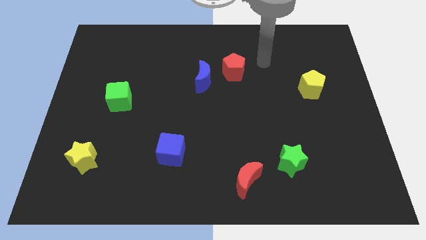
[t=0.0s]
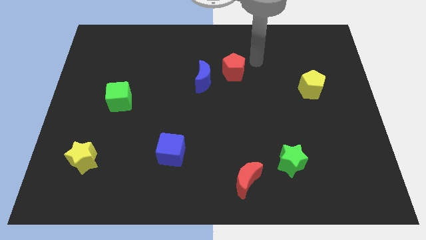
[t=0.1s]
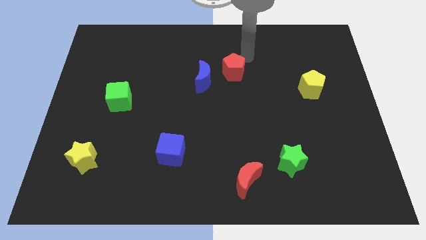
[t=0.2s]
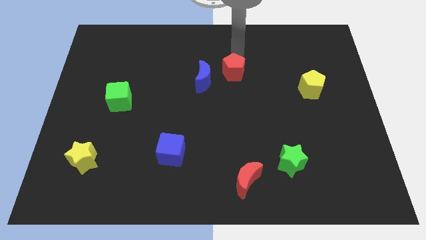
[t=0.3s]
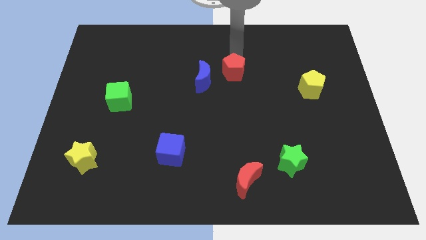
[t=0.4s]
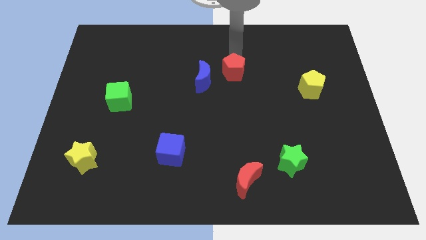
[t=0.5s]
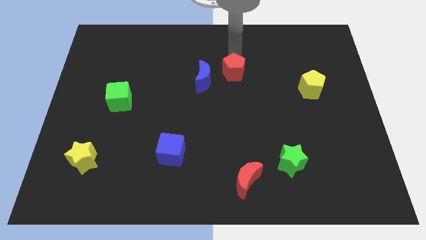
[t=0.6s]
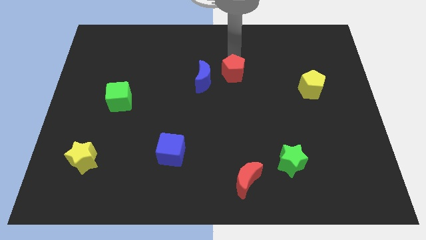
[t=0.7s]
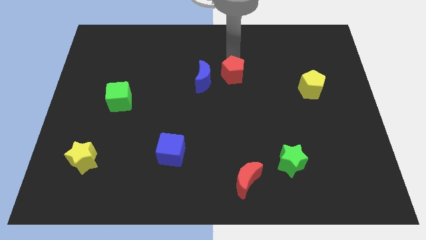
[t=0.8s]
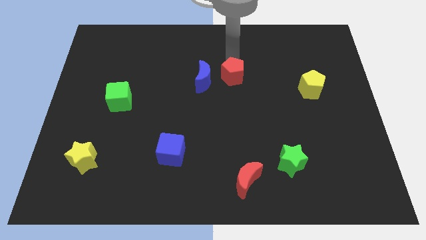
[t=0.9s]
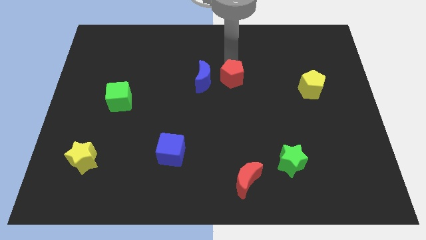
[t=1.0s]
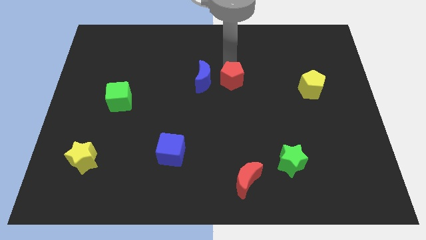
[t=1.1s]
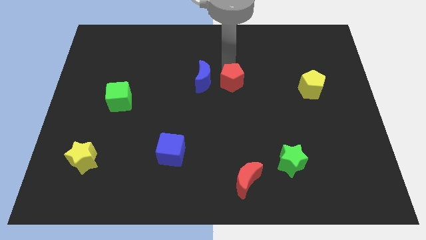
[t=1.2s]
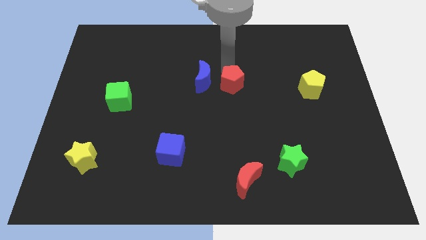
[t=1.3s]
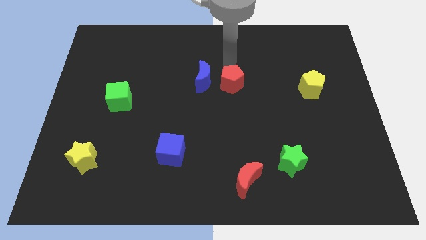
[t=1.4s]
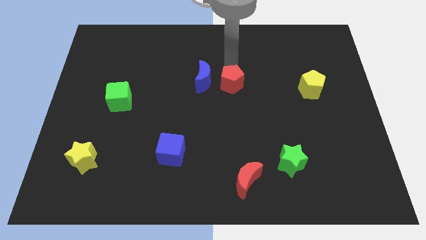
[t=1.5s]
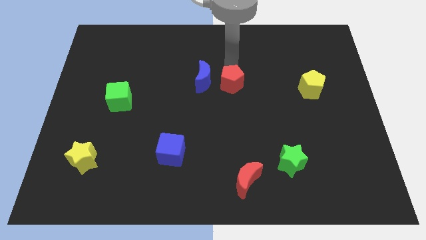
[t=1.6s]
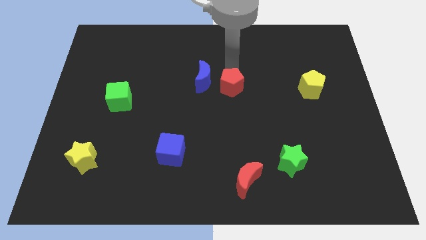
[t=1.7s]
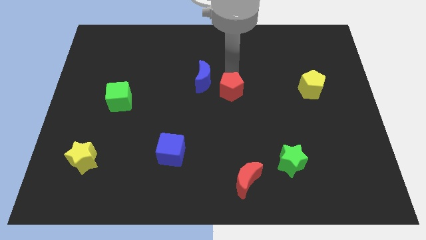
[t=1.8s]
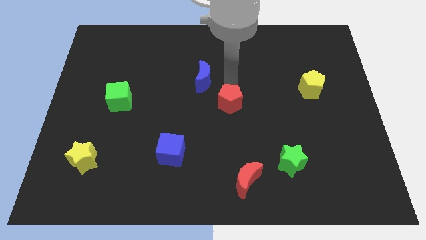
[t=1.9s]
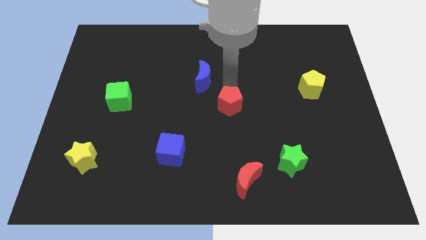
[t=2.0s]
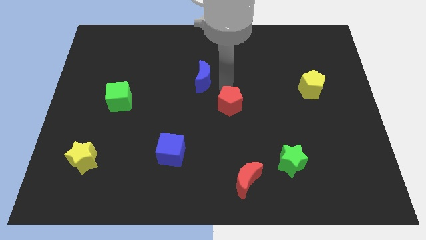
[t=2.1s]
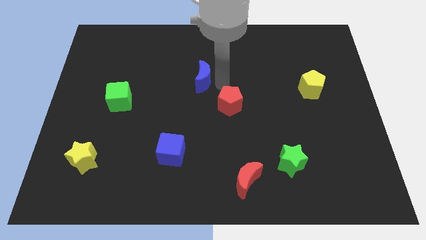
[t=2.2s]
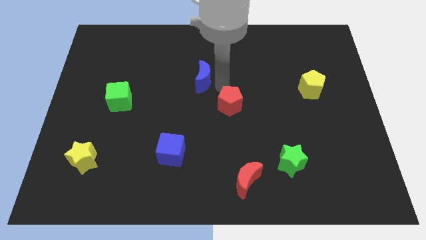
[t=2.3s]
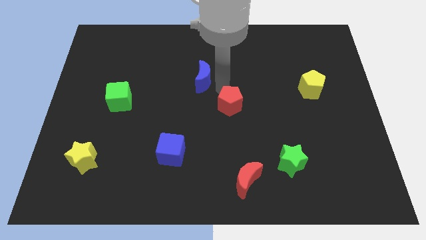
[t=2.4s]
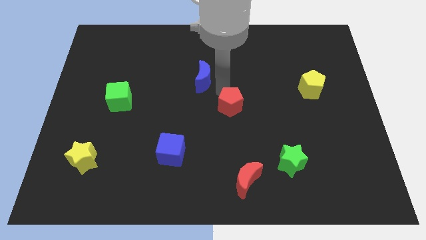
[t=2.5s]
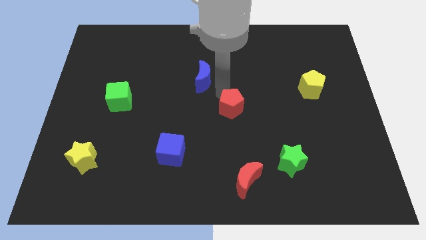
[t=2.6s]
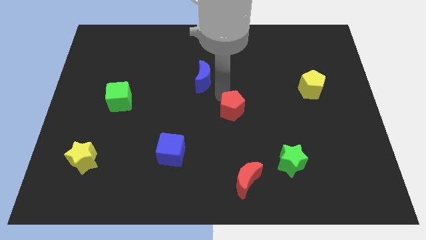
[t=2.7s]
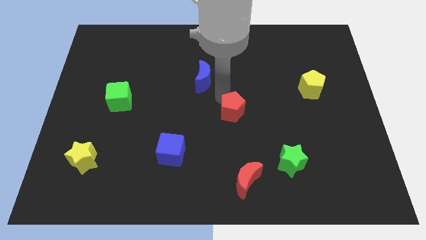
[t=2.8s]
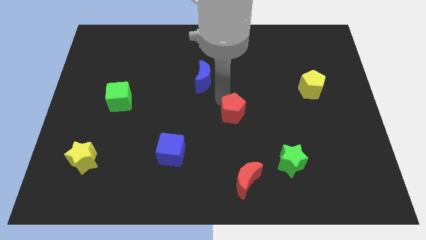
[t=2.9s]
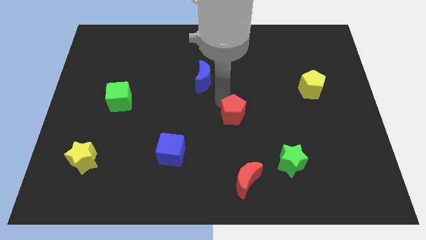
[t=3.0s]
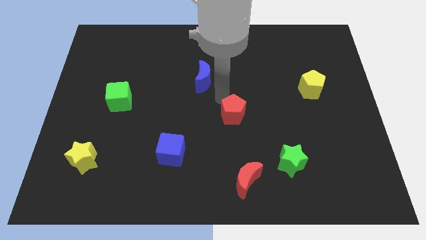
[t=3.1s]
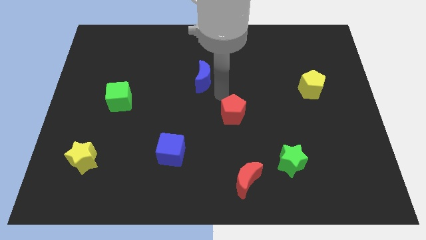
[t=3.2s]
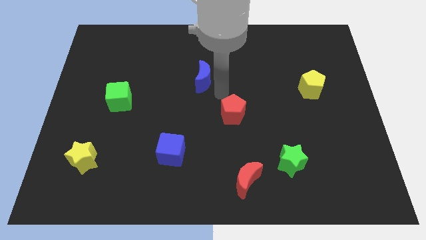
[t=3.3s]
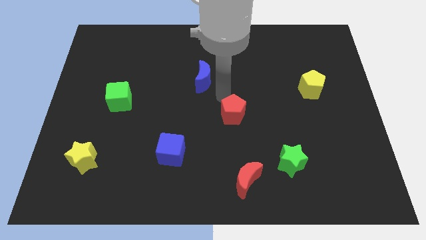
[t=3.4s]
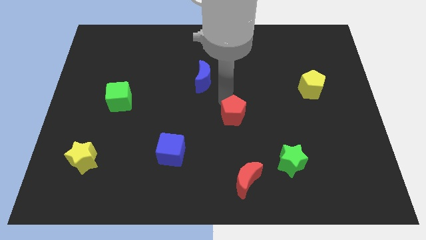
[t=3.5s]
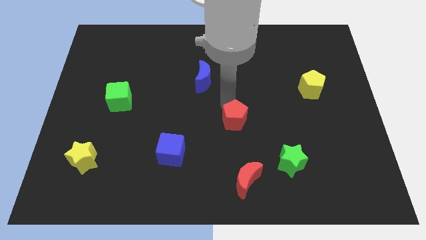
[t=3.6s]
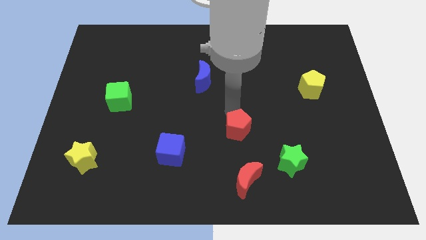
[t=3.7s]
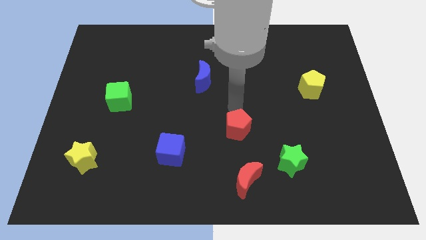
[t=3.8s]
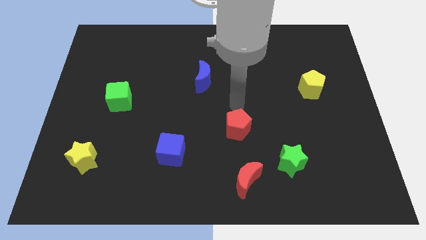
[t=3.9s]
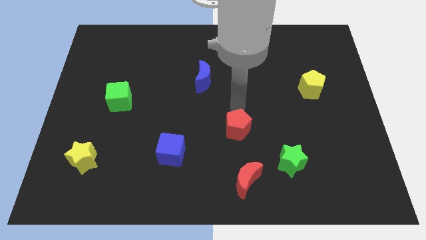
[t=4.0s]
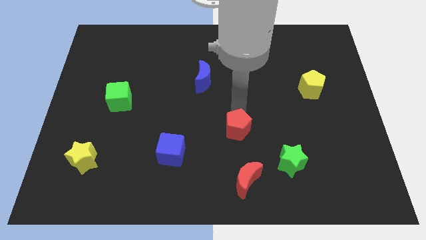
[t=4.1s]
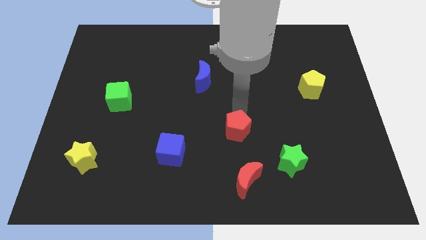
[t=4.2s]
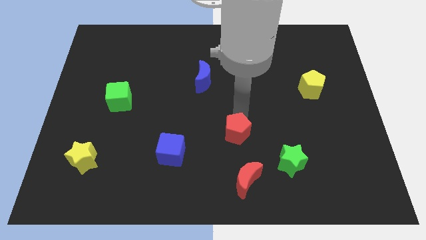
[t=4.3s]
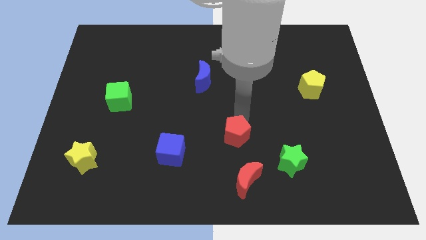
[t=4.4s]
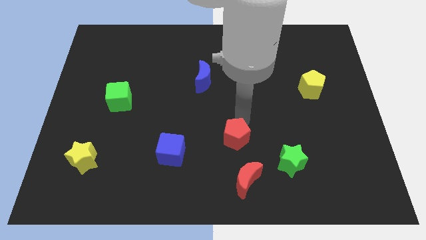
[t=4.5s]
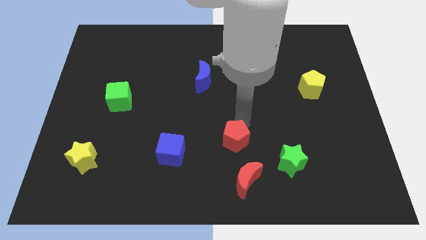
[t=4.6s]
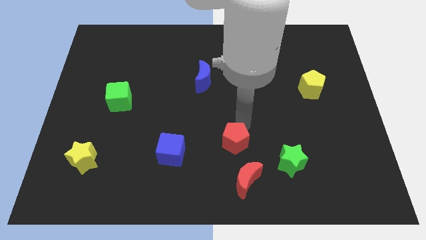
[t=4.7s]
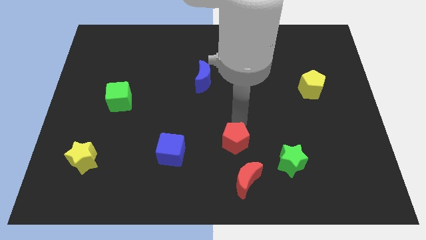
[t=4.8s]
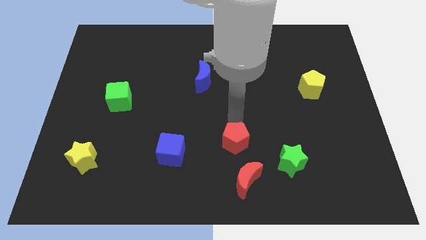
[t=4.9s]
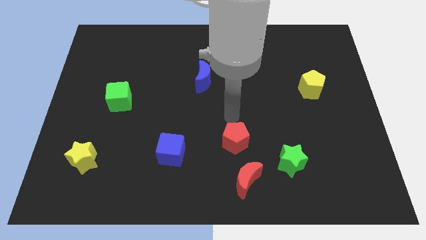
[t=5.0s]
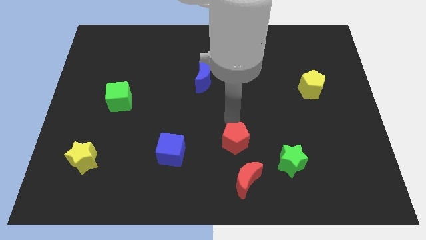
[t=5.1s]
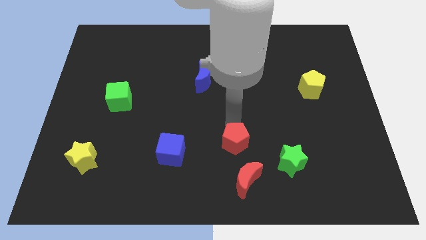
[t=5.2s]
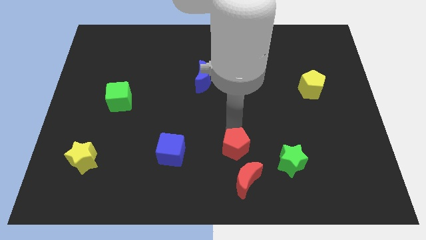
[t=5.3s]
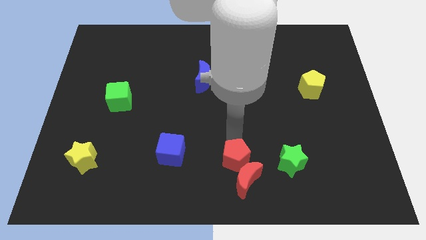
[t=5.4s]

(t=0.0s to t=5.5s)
put the red pentagon towards the red moon

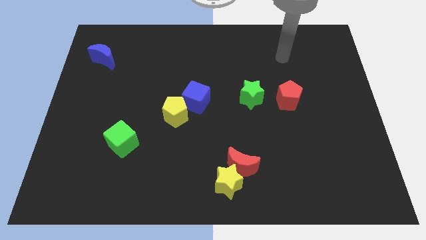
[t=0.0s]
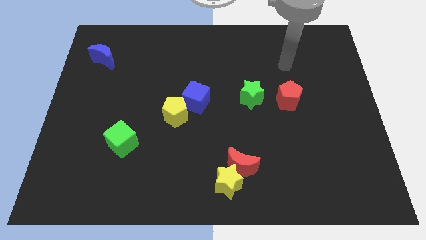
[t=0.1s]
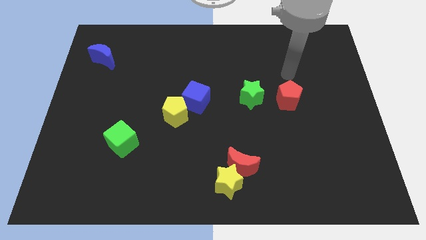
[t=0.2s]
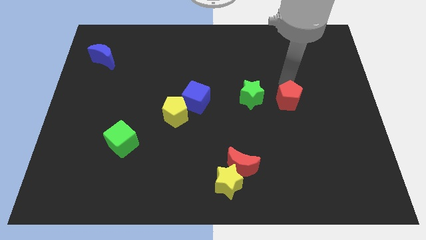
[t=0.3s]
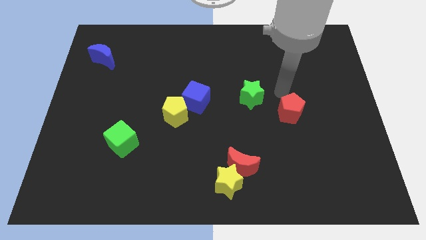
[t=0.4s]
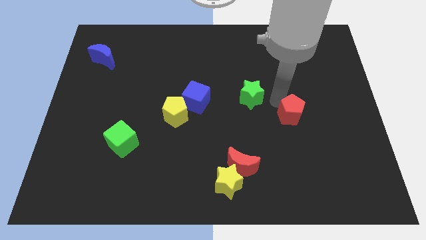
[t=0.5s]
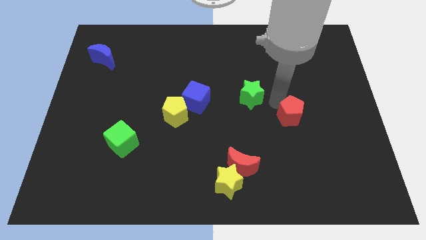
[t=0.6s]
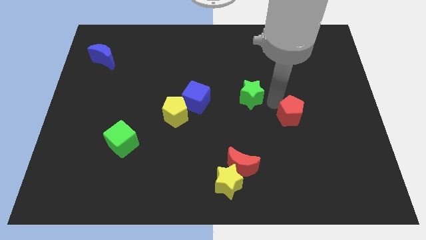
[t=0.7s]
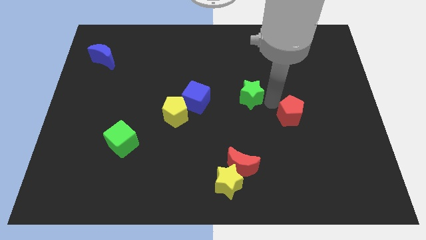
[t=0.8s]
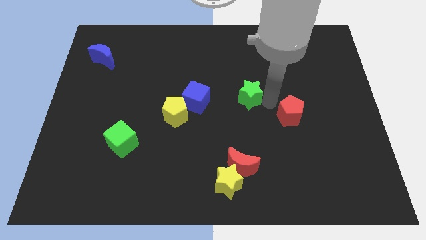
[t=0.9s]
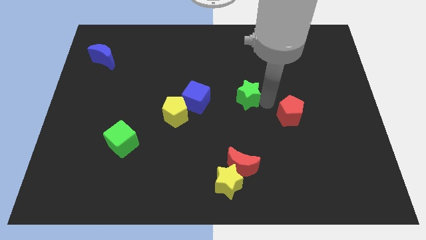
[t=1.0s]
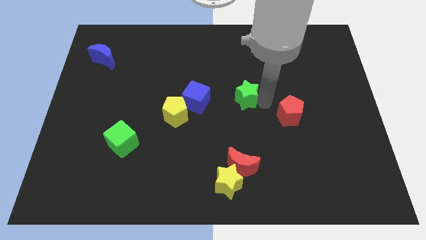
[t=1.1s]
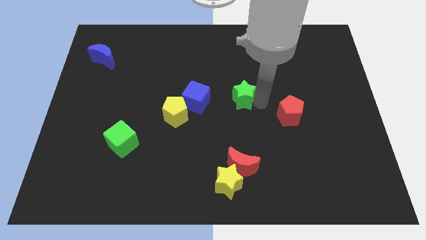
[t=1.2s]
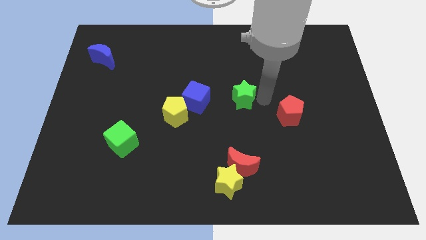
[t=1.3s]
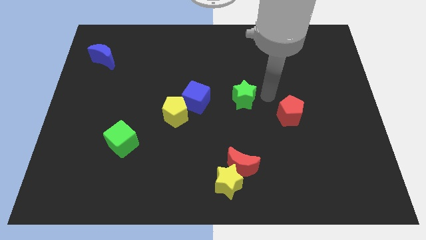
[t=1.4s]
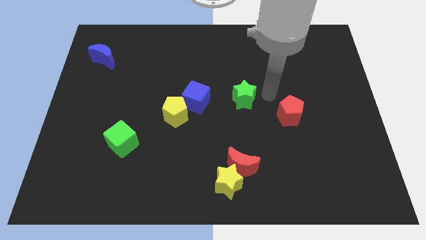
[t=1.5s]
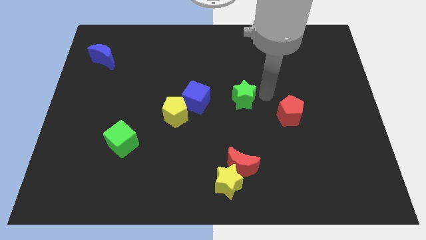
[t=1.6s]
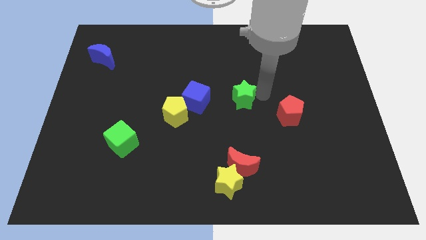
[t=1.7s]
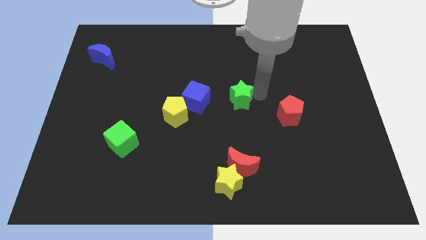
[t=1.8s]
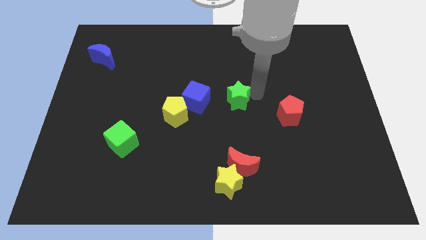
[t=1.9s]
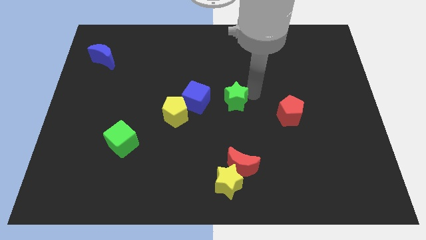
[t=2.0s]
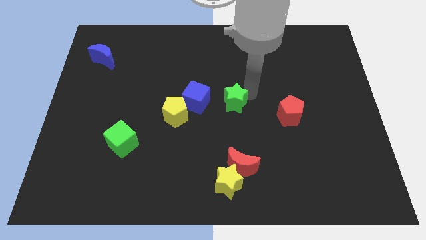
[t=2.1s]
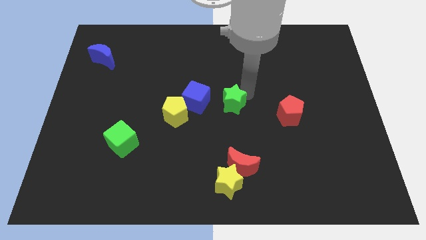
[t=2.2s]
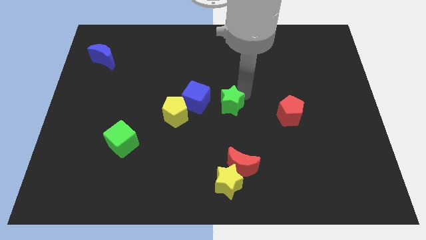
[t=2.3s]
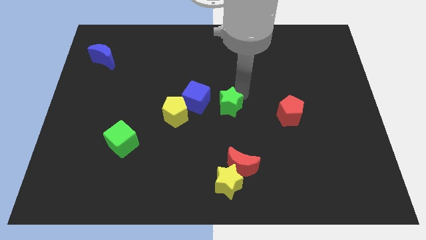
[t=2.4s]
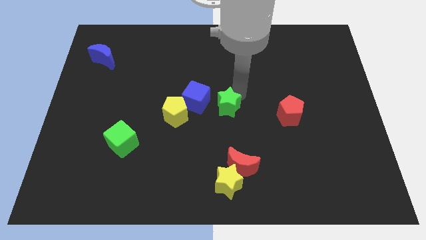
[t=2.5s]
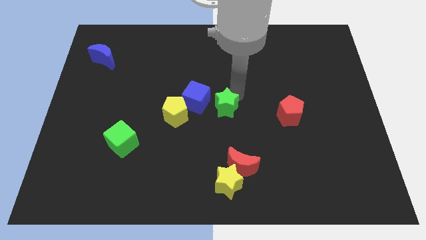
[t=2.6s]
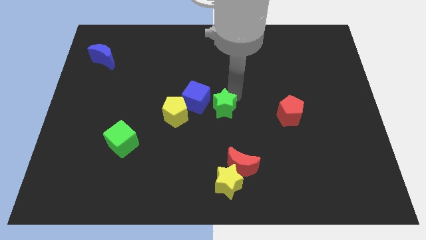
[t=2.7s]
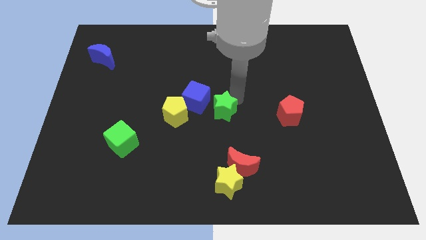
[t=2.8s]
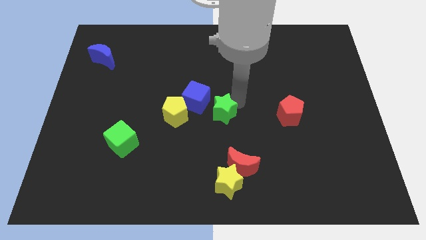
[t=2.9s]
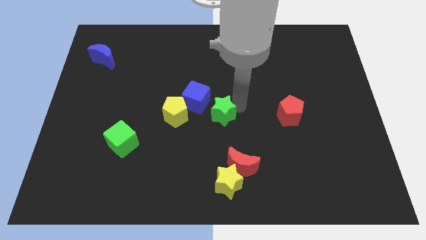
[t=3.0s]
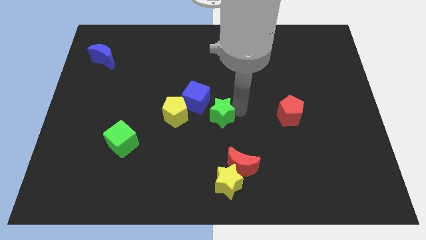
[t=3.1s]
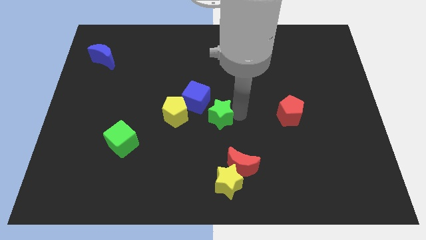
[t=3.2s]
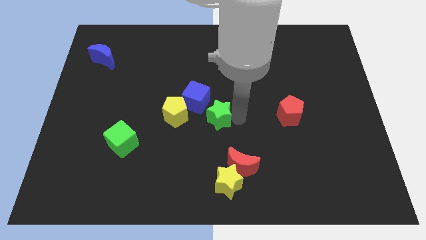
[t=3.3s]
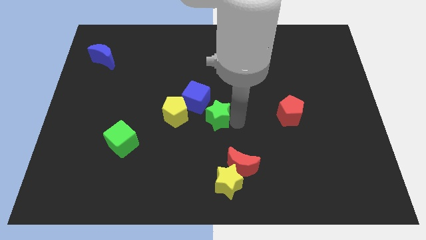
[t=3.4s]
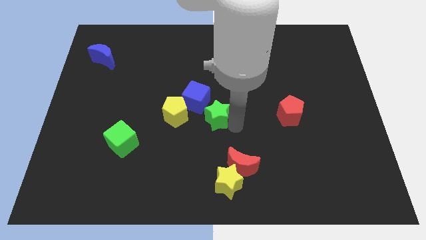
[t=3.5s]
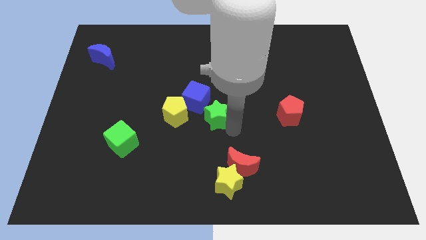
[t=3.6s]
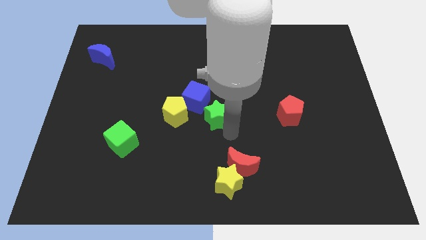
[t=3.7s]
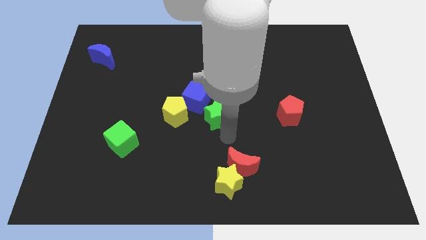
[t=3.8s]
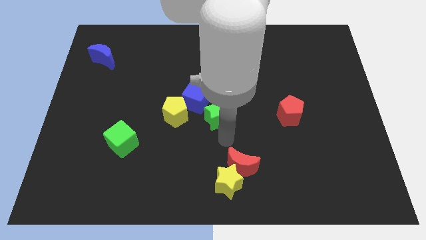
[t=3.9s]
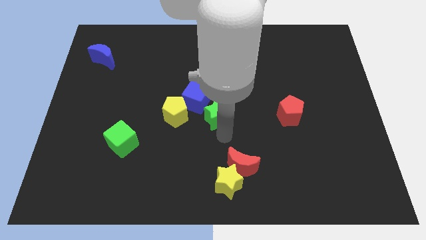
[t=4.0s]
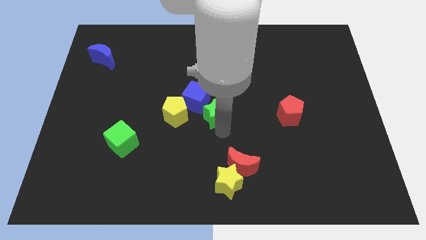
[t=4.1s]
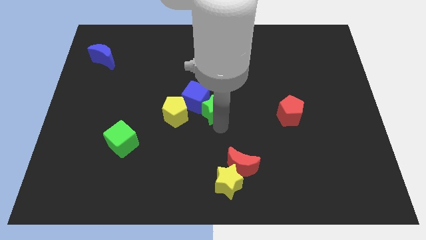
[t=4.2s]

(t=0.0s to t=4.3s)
slide the green star towards the blue cube
